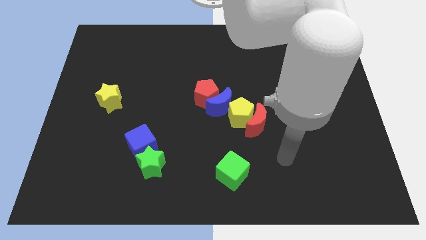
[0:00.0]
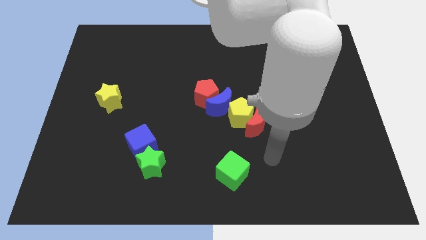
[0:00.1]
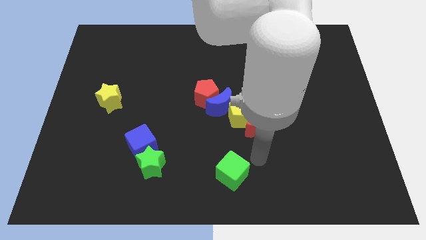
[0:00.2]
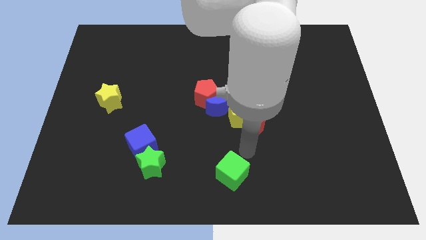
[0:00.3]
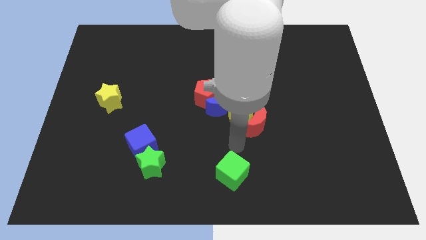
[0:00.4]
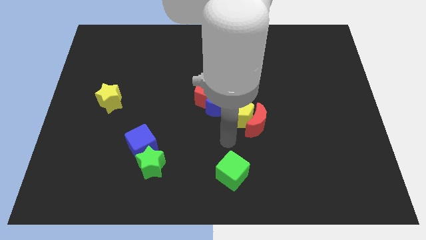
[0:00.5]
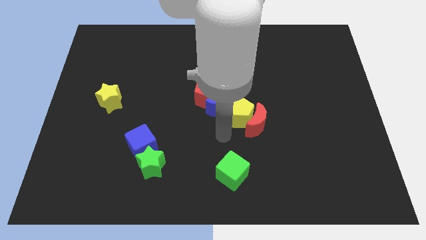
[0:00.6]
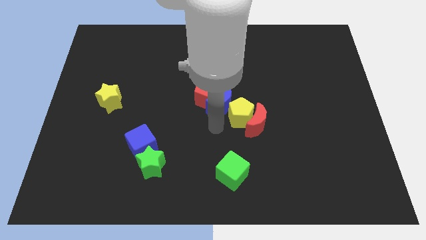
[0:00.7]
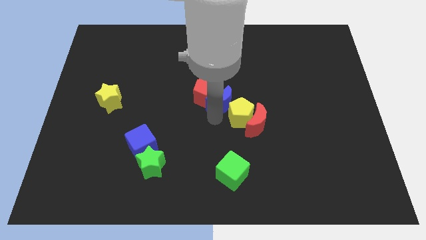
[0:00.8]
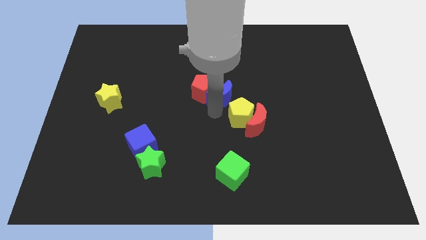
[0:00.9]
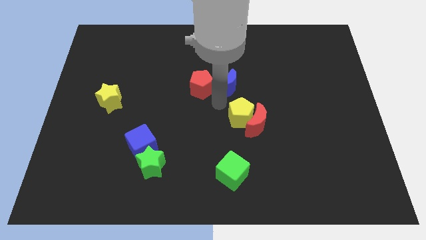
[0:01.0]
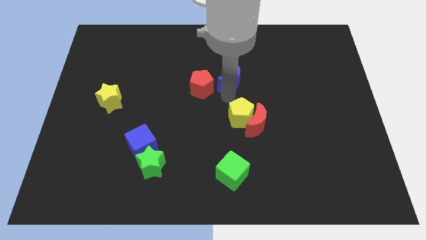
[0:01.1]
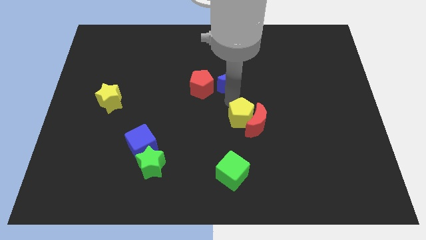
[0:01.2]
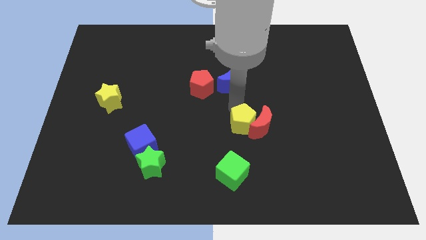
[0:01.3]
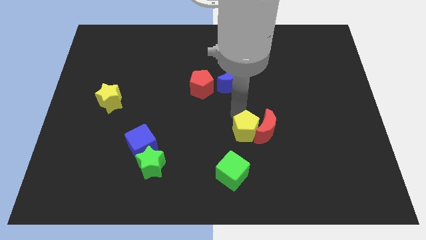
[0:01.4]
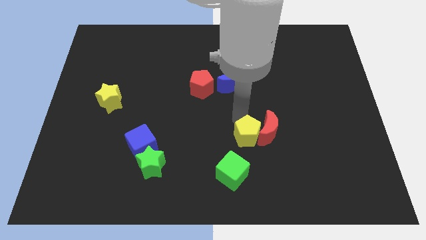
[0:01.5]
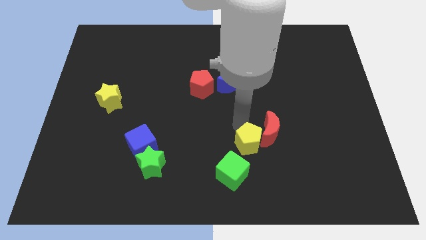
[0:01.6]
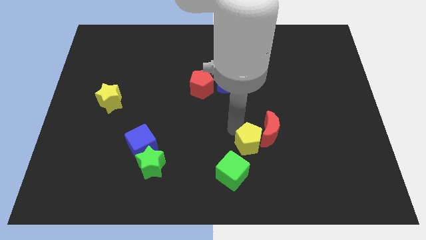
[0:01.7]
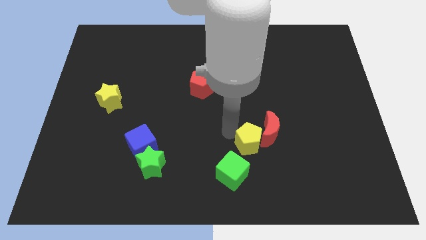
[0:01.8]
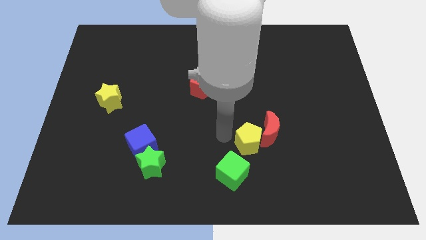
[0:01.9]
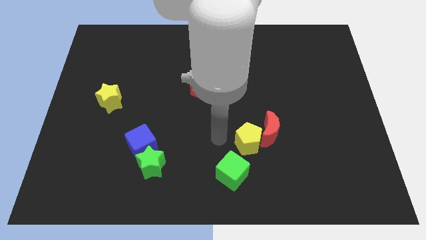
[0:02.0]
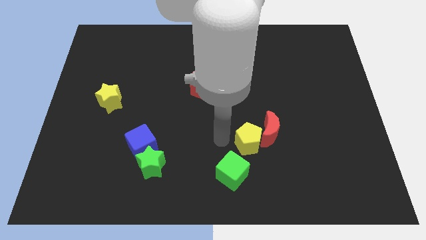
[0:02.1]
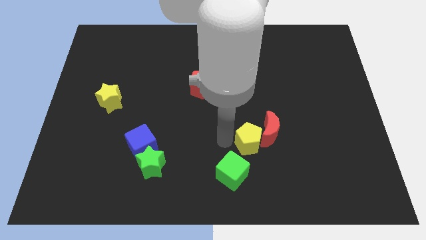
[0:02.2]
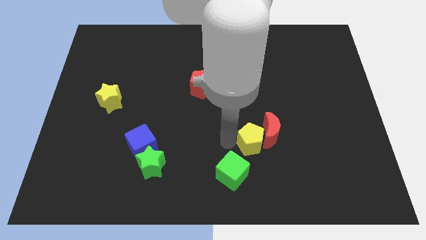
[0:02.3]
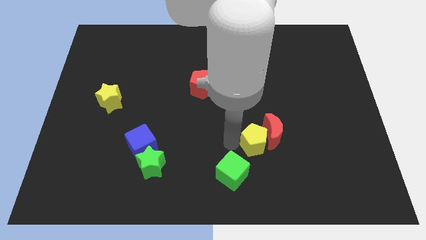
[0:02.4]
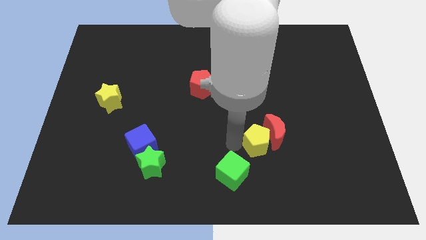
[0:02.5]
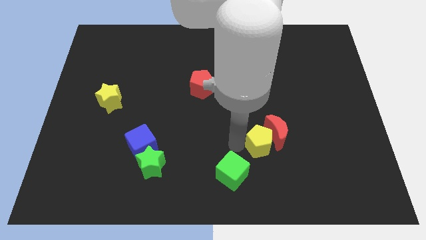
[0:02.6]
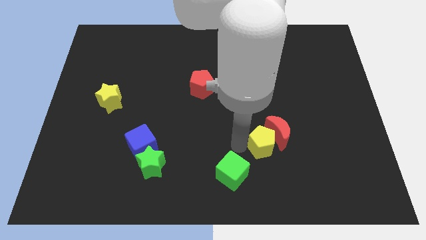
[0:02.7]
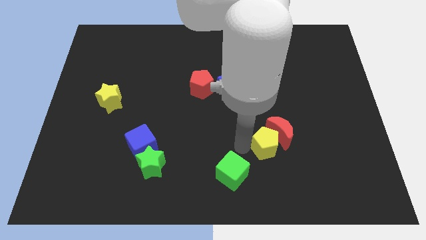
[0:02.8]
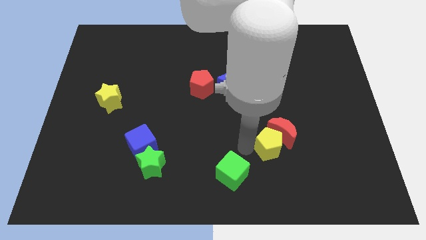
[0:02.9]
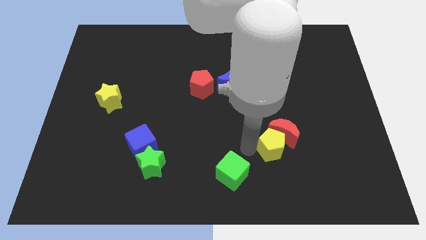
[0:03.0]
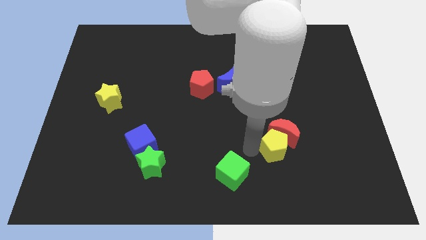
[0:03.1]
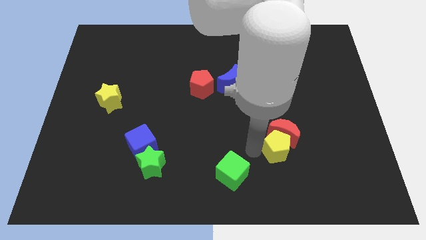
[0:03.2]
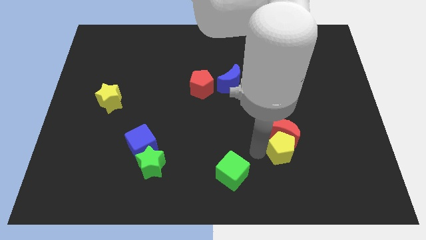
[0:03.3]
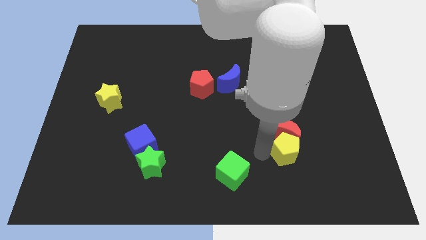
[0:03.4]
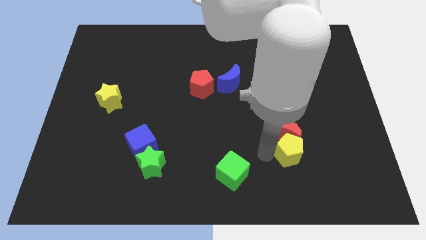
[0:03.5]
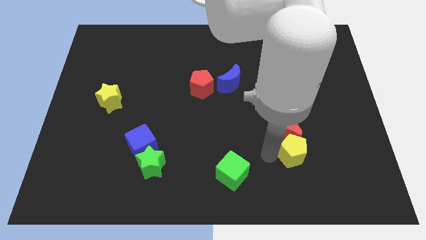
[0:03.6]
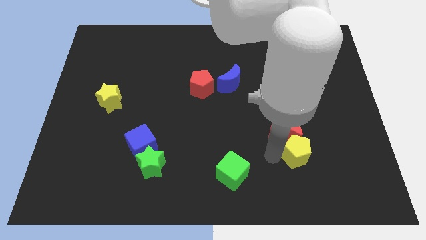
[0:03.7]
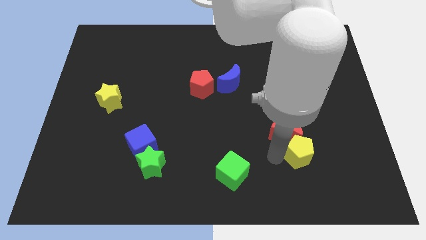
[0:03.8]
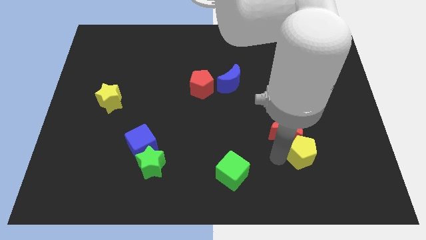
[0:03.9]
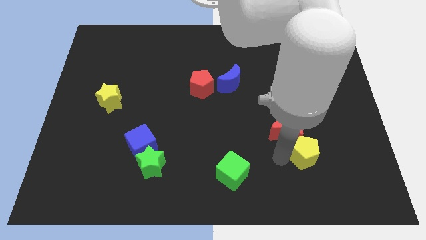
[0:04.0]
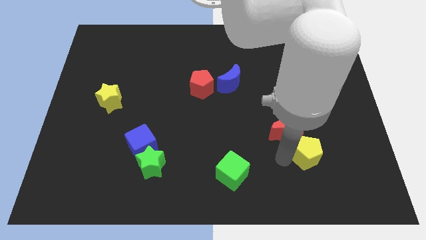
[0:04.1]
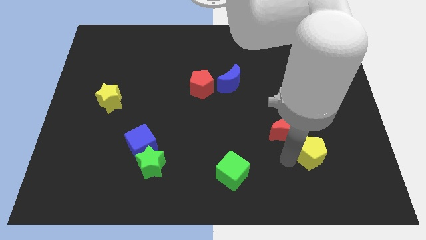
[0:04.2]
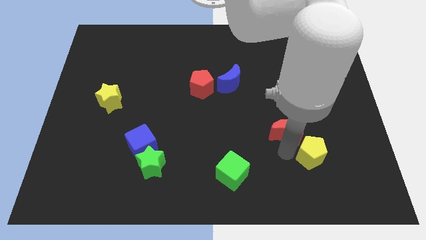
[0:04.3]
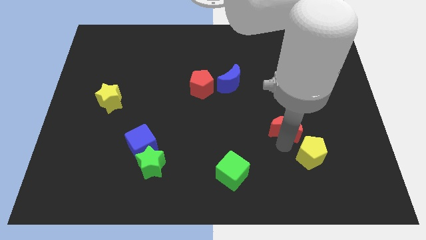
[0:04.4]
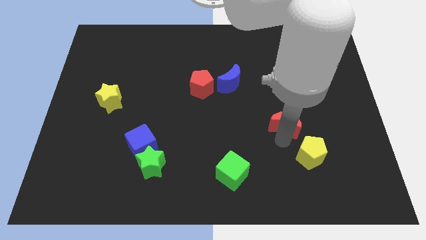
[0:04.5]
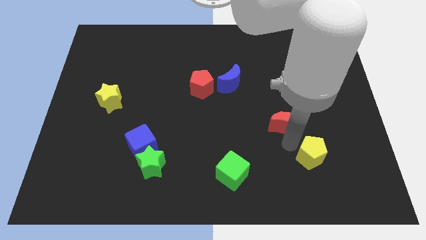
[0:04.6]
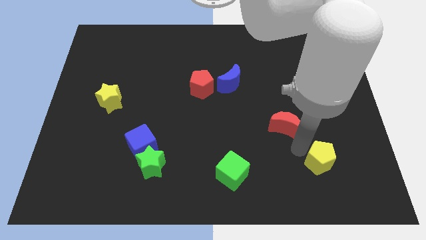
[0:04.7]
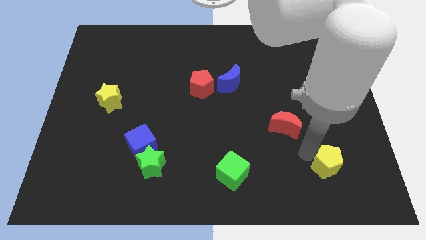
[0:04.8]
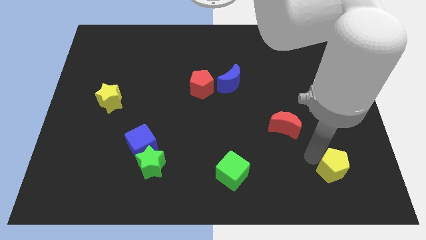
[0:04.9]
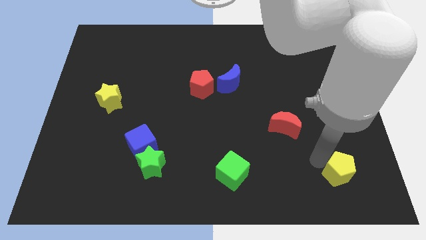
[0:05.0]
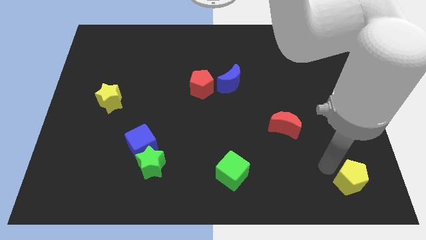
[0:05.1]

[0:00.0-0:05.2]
put the yellow pentagon to the bottom right corner
